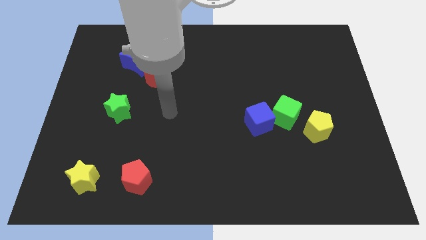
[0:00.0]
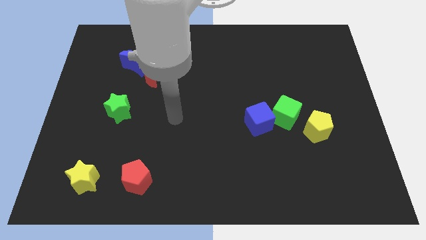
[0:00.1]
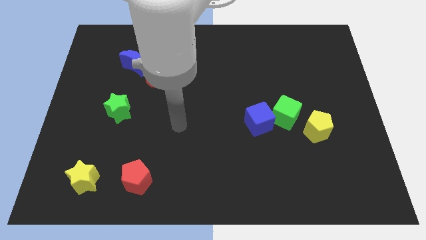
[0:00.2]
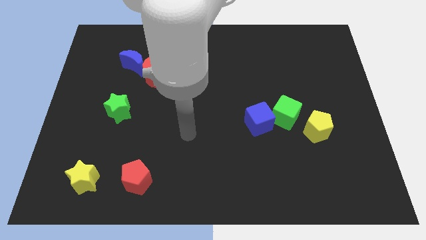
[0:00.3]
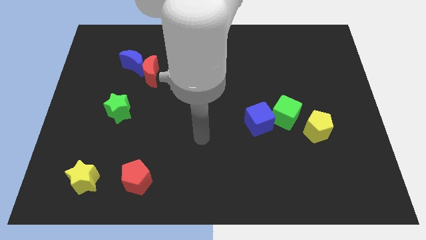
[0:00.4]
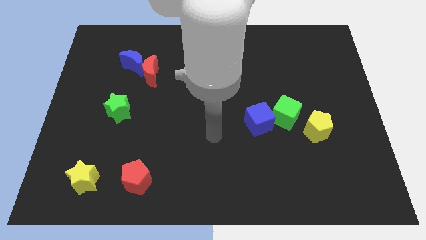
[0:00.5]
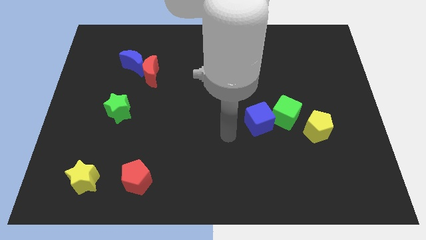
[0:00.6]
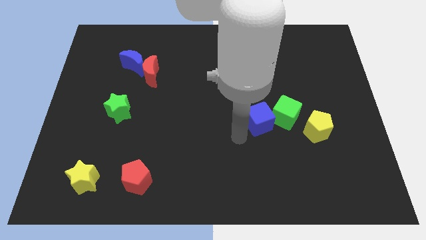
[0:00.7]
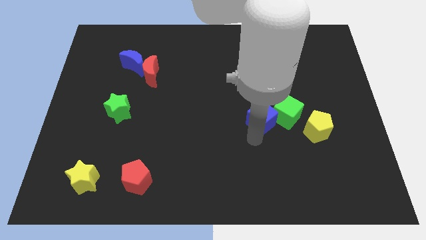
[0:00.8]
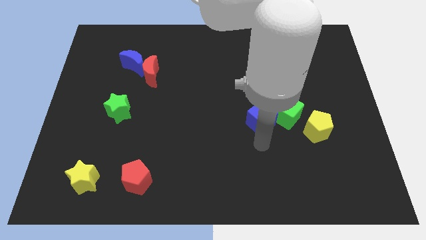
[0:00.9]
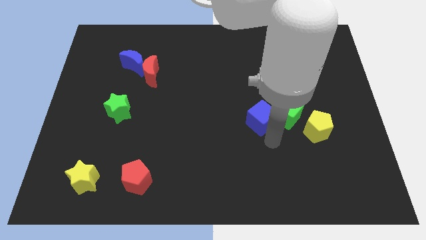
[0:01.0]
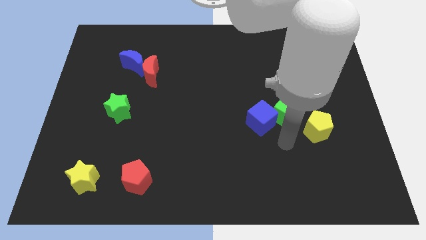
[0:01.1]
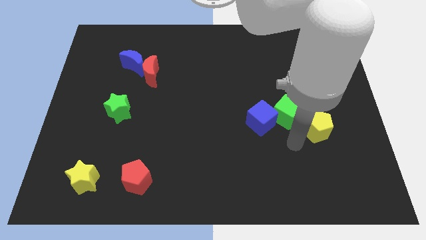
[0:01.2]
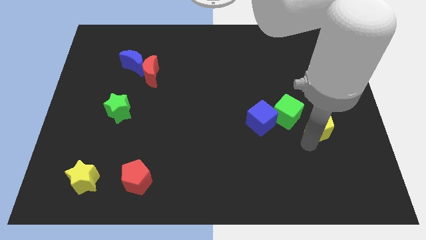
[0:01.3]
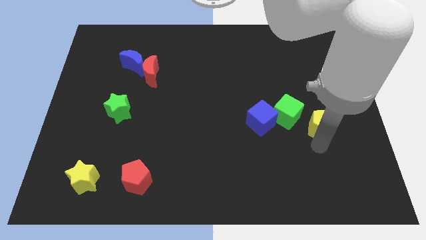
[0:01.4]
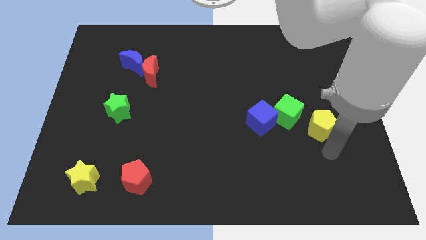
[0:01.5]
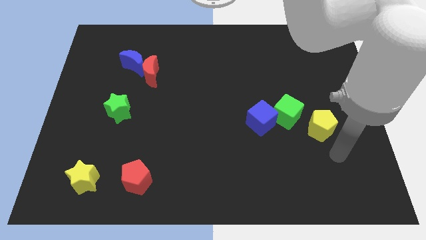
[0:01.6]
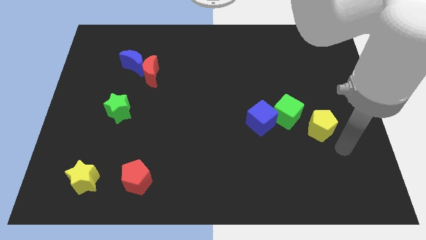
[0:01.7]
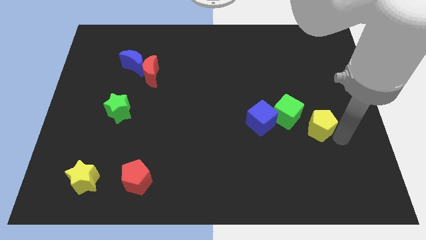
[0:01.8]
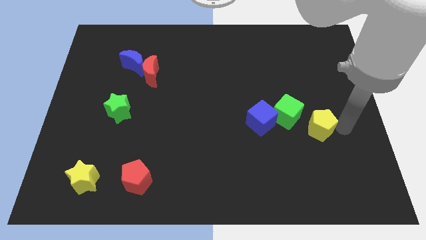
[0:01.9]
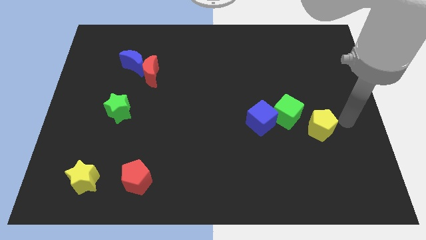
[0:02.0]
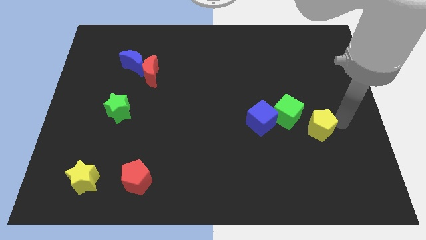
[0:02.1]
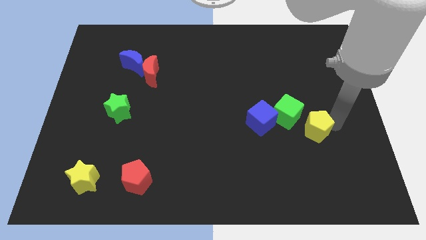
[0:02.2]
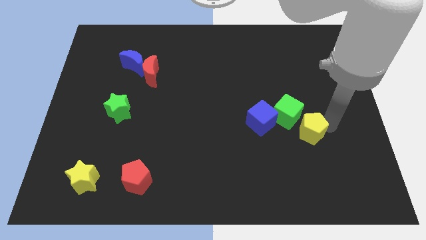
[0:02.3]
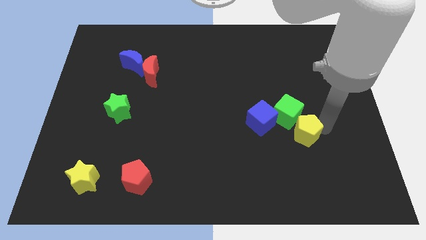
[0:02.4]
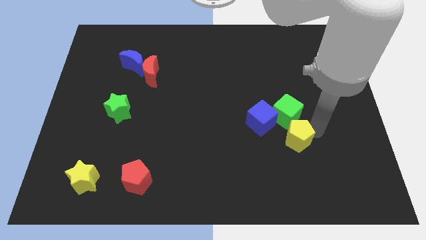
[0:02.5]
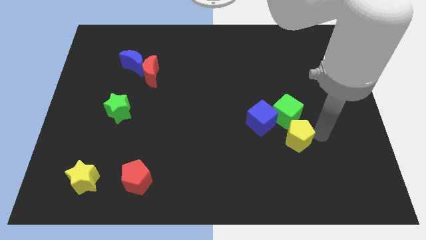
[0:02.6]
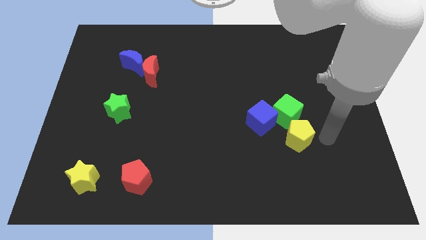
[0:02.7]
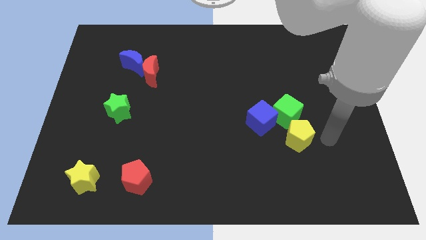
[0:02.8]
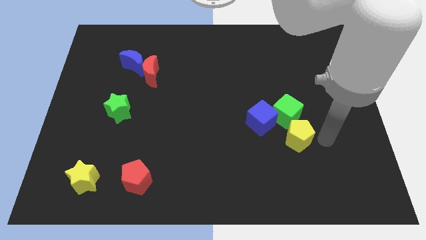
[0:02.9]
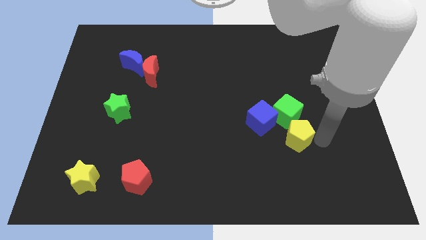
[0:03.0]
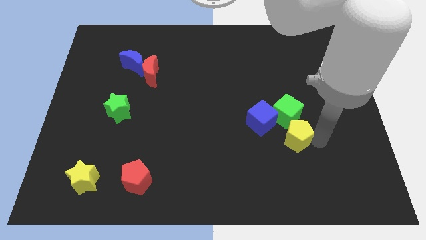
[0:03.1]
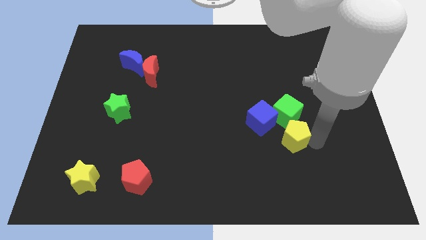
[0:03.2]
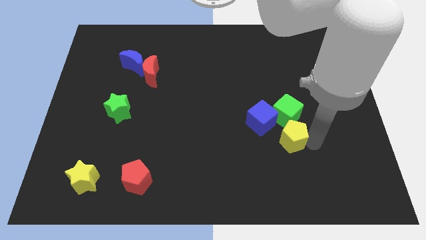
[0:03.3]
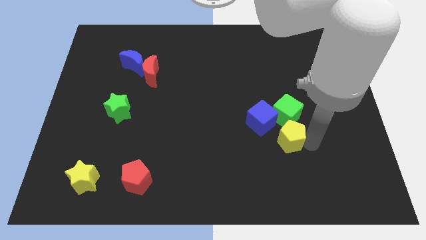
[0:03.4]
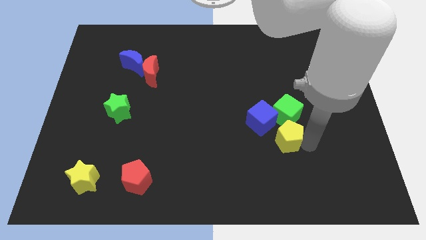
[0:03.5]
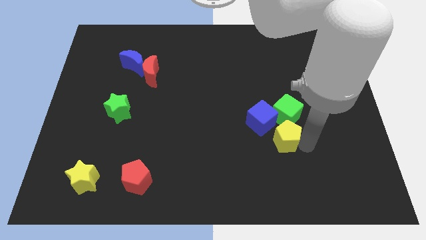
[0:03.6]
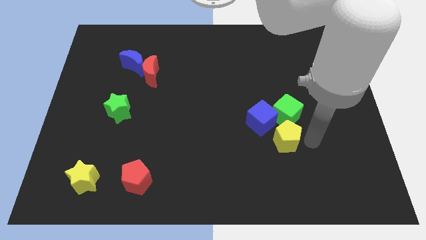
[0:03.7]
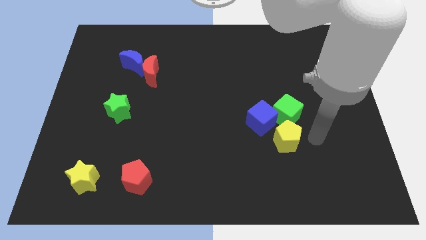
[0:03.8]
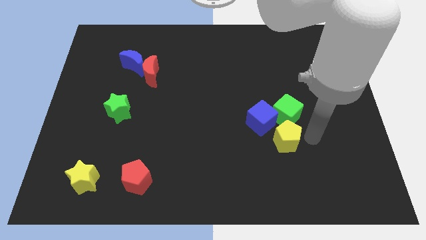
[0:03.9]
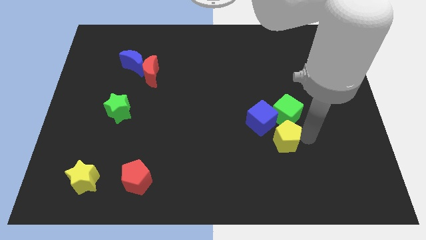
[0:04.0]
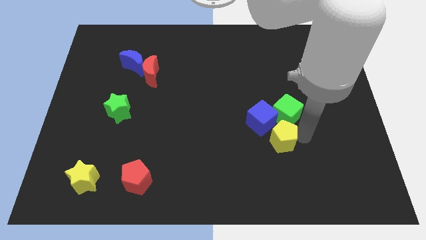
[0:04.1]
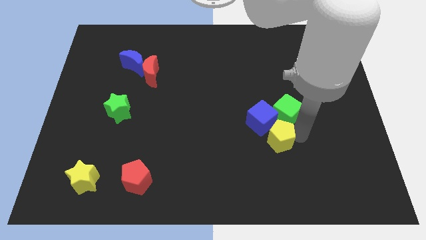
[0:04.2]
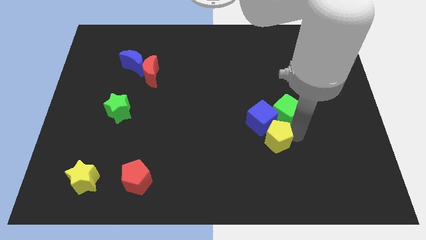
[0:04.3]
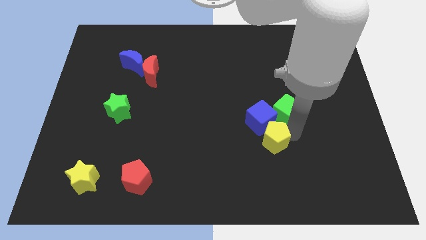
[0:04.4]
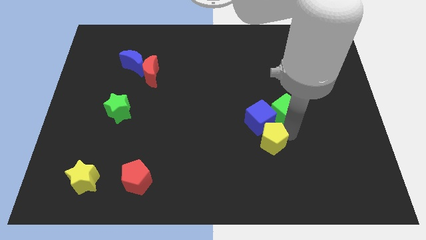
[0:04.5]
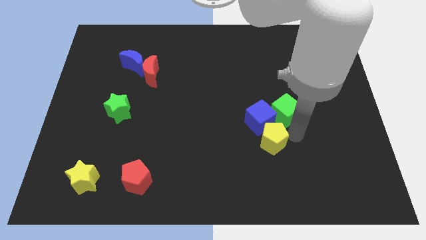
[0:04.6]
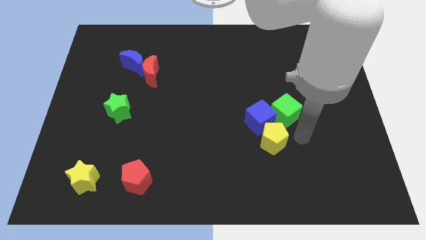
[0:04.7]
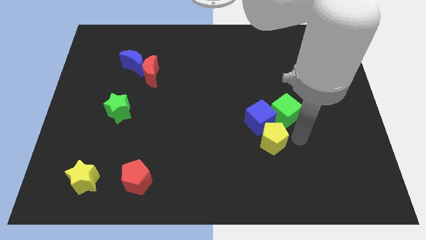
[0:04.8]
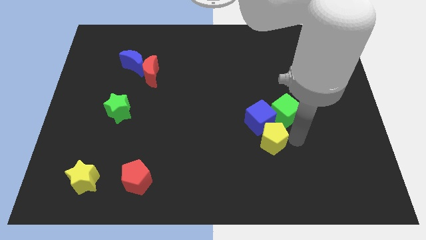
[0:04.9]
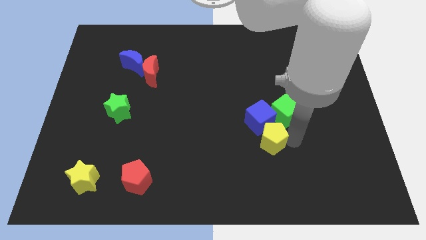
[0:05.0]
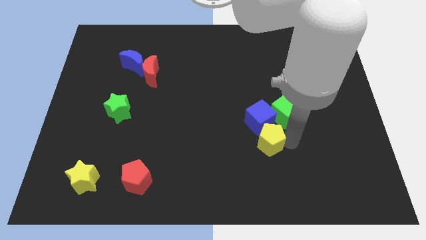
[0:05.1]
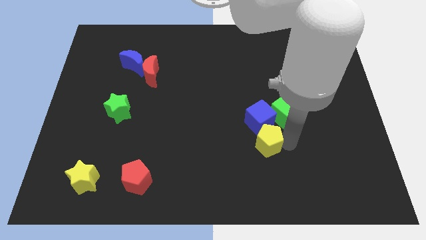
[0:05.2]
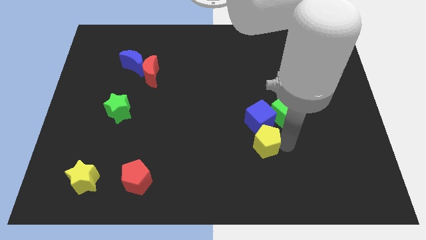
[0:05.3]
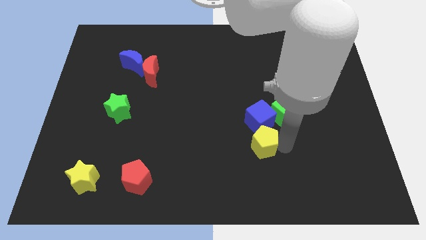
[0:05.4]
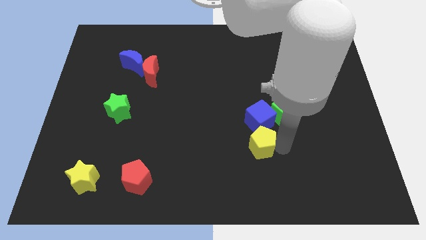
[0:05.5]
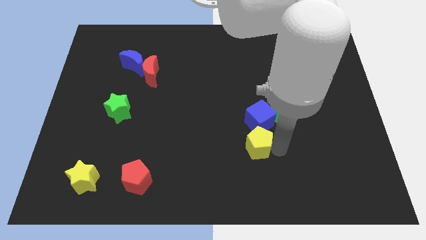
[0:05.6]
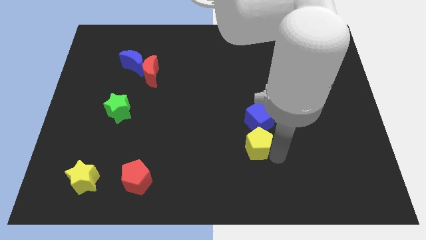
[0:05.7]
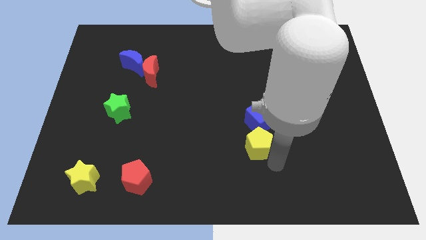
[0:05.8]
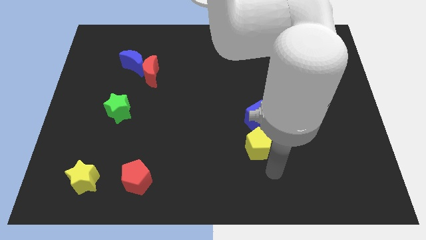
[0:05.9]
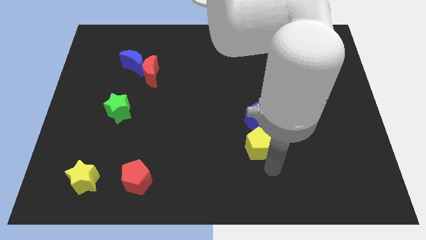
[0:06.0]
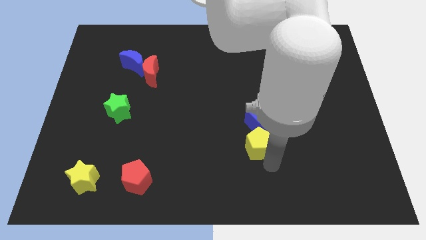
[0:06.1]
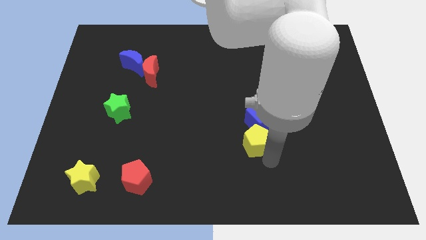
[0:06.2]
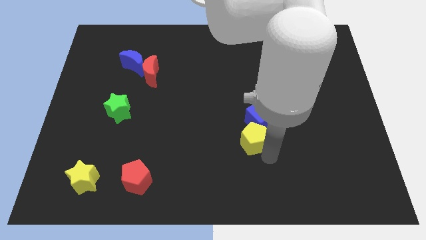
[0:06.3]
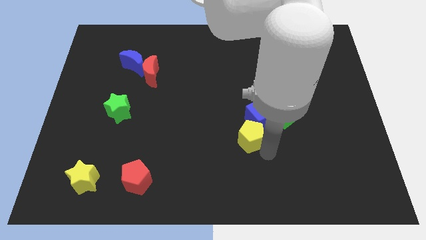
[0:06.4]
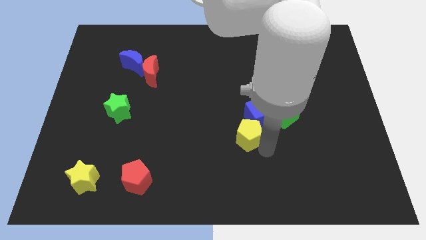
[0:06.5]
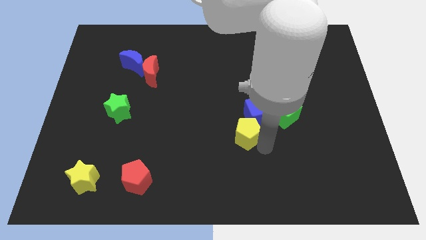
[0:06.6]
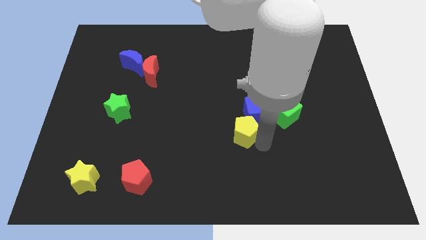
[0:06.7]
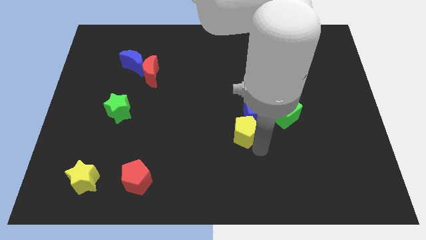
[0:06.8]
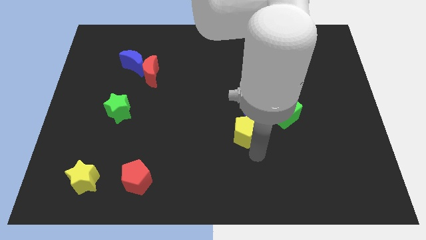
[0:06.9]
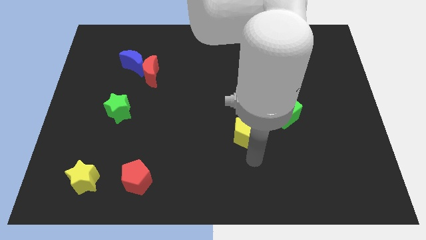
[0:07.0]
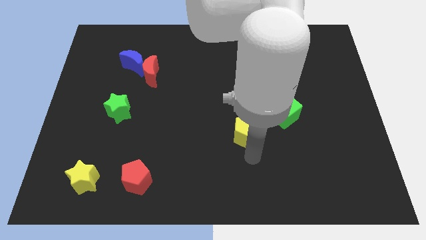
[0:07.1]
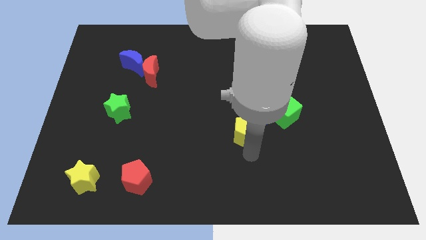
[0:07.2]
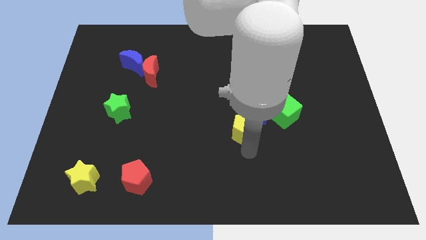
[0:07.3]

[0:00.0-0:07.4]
push the yellow pentagon left of the green cube
